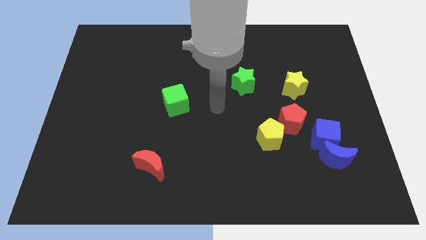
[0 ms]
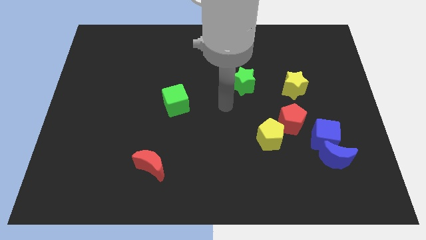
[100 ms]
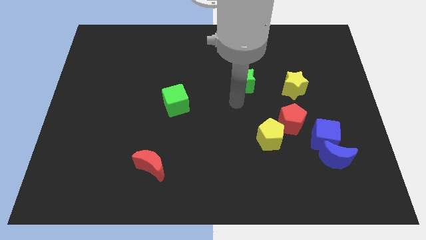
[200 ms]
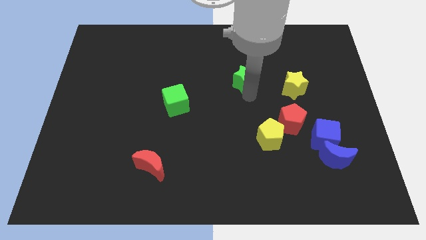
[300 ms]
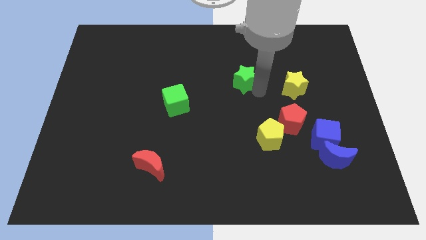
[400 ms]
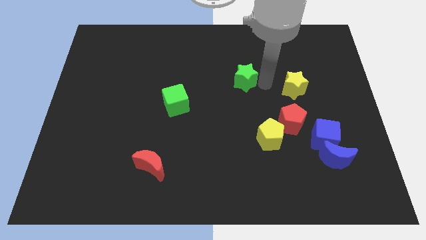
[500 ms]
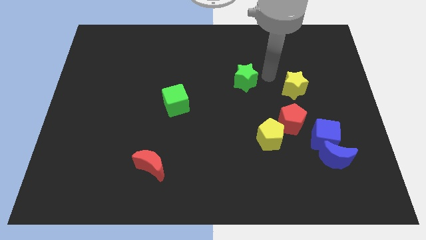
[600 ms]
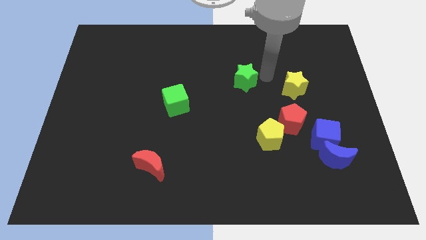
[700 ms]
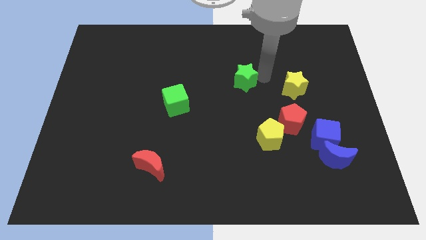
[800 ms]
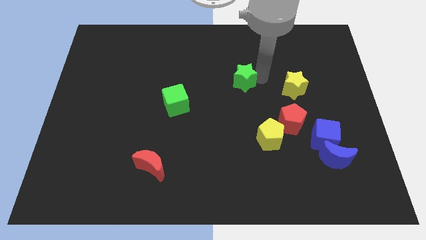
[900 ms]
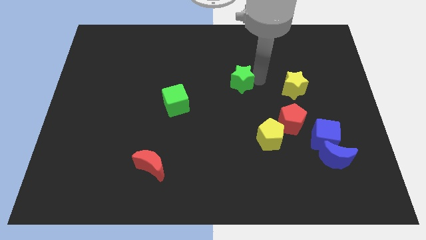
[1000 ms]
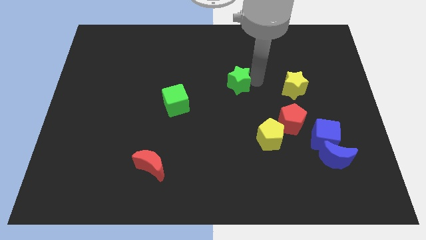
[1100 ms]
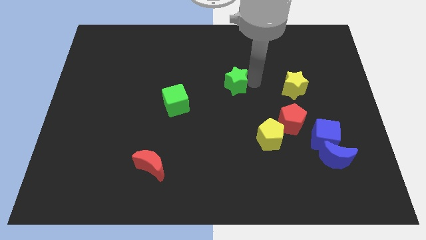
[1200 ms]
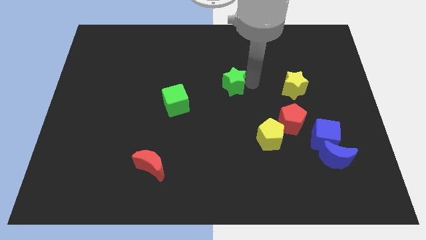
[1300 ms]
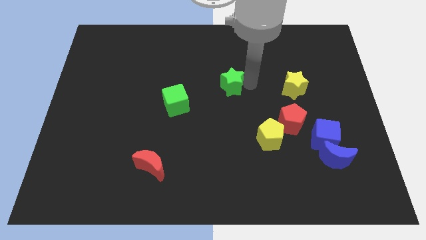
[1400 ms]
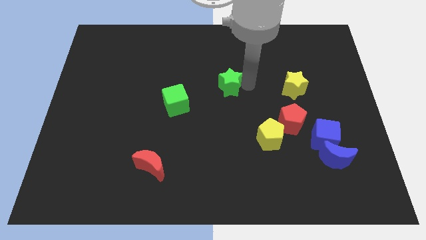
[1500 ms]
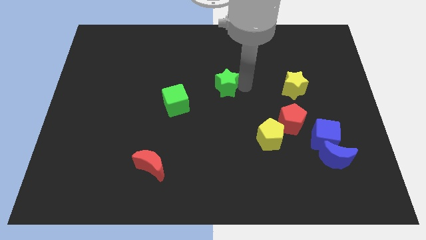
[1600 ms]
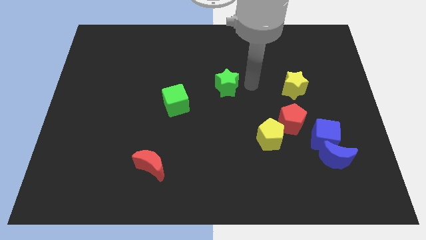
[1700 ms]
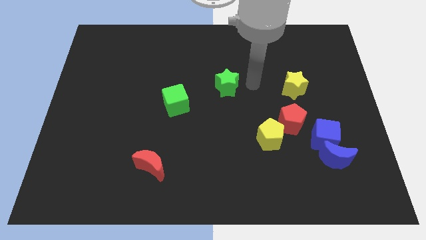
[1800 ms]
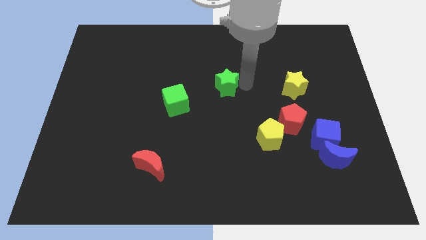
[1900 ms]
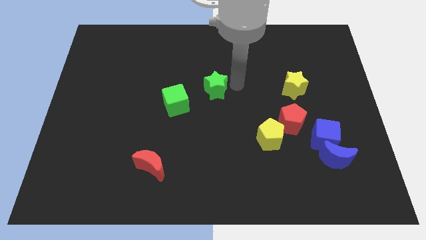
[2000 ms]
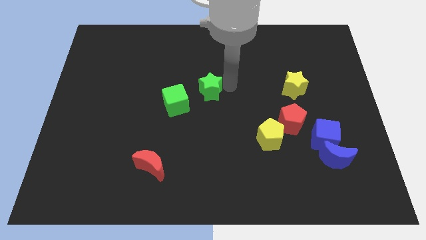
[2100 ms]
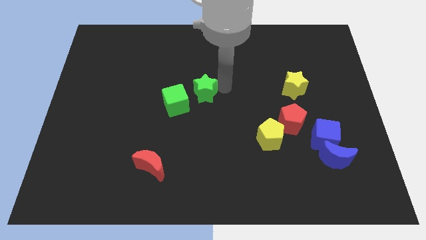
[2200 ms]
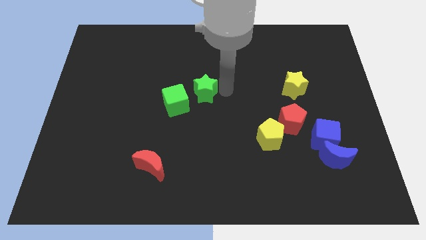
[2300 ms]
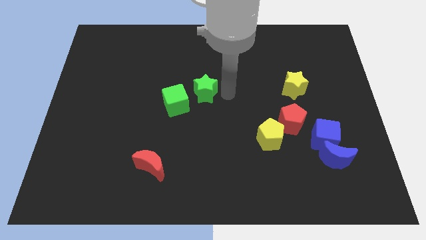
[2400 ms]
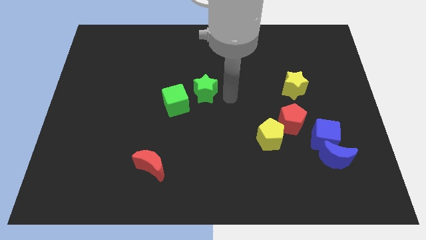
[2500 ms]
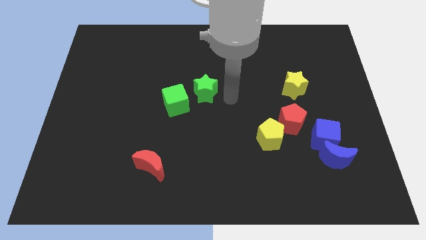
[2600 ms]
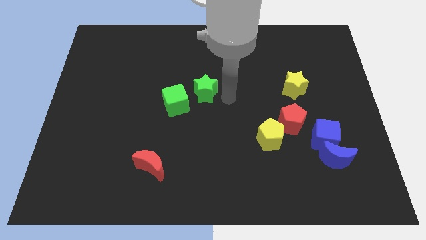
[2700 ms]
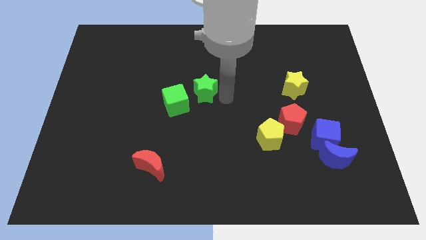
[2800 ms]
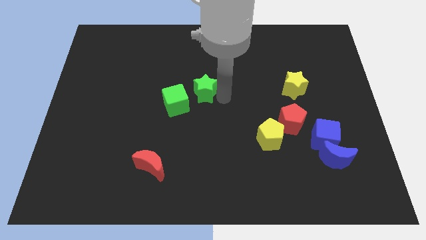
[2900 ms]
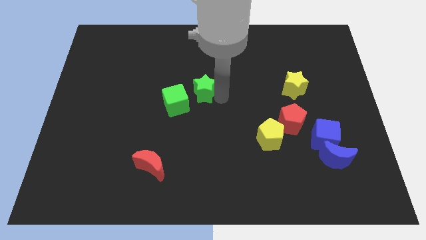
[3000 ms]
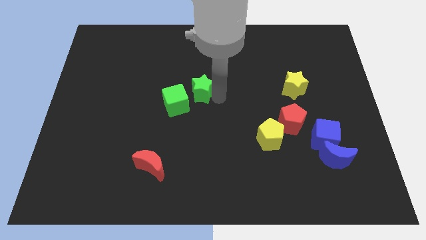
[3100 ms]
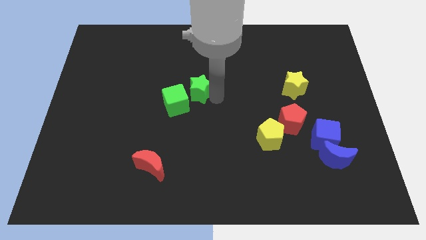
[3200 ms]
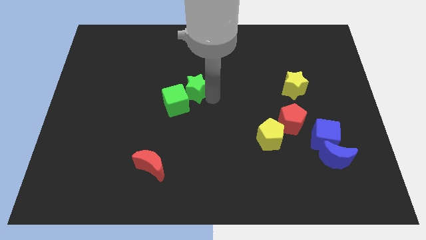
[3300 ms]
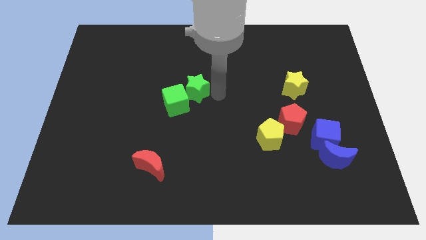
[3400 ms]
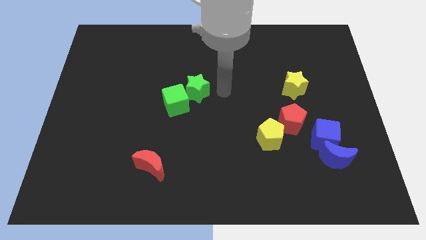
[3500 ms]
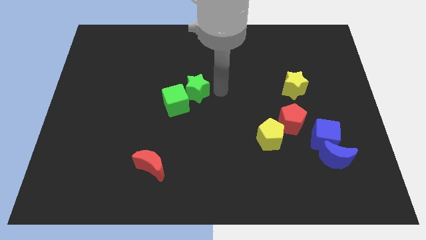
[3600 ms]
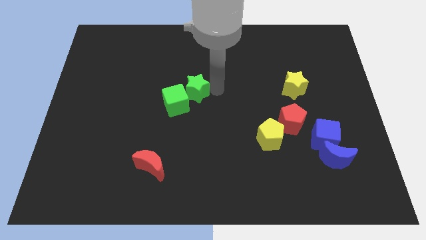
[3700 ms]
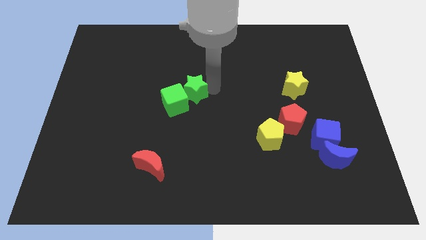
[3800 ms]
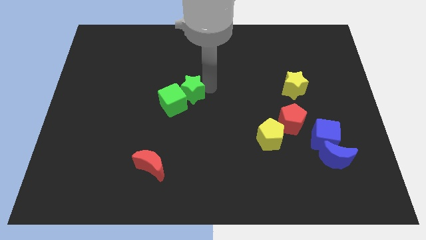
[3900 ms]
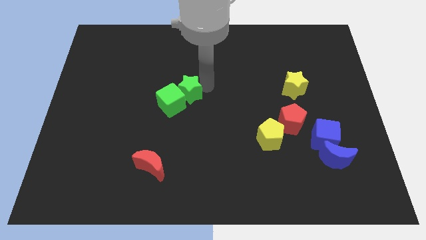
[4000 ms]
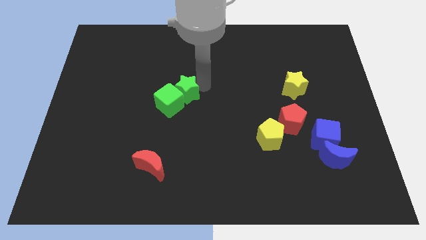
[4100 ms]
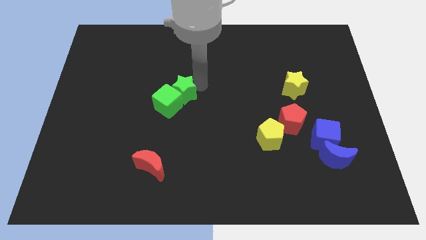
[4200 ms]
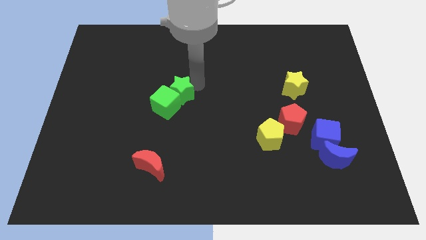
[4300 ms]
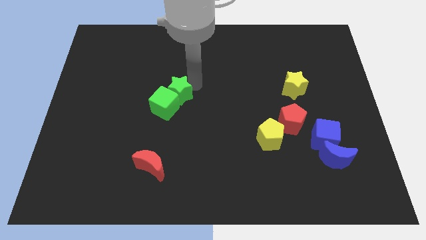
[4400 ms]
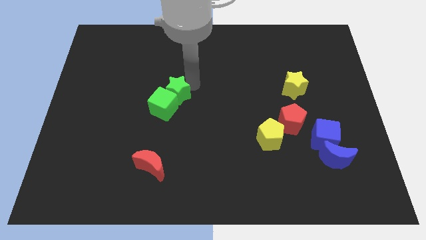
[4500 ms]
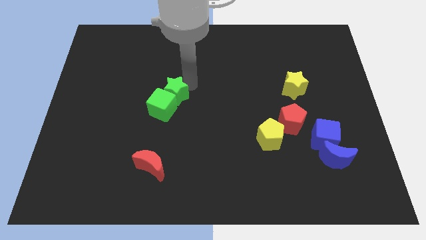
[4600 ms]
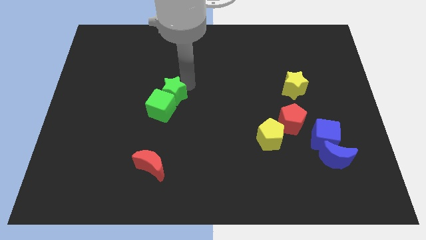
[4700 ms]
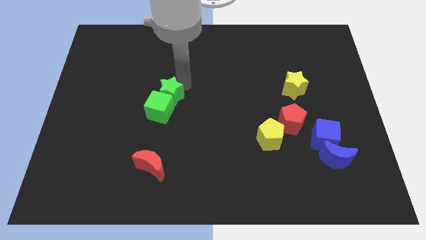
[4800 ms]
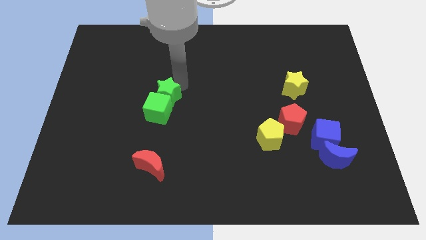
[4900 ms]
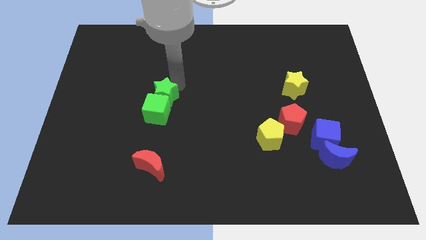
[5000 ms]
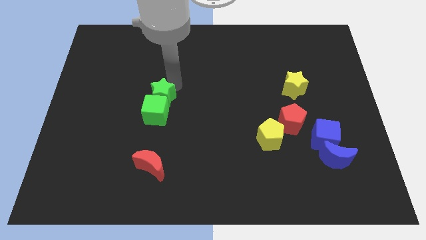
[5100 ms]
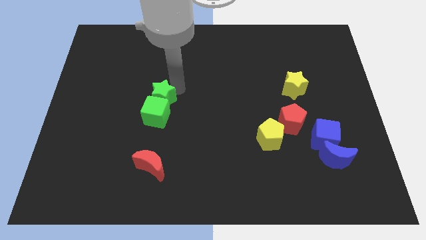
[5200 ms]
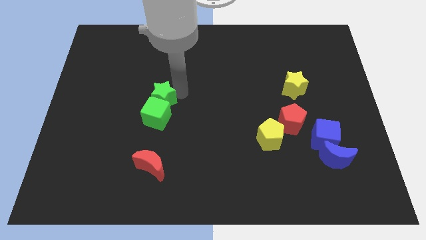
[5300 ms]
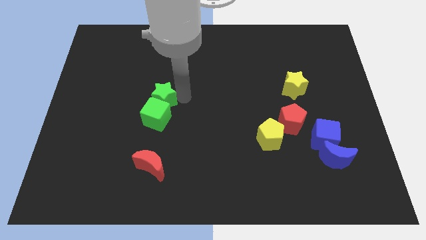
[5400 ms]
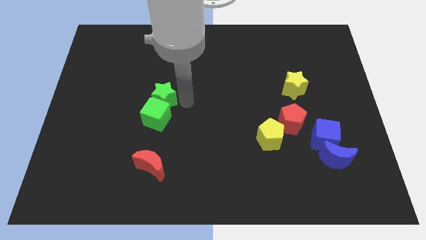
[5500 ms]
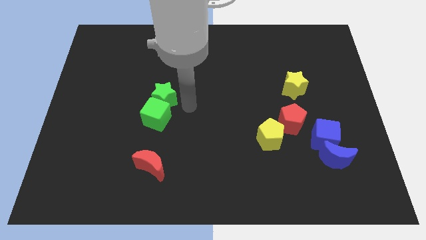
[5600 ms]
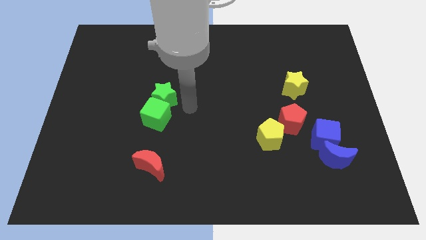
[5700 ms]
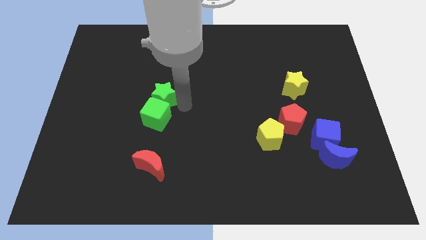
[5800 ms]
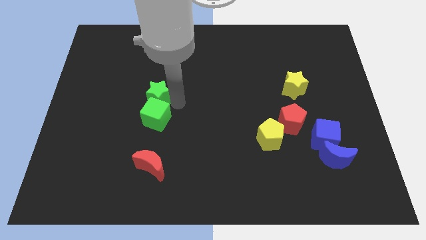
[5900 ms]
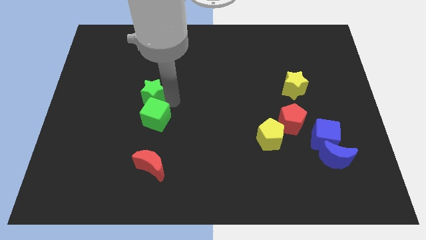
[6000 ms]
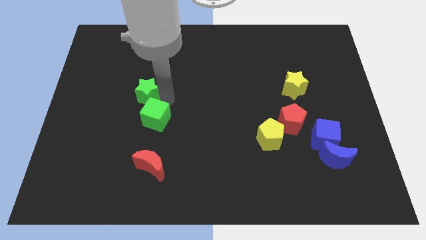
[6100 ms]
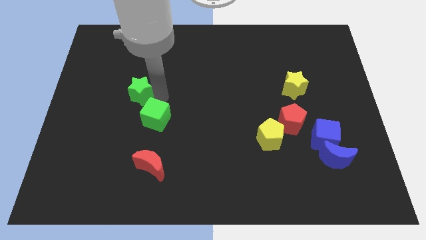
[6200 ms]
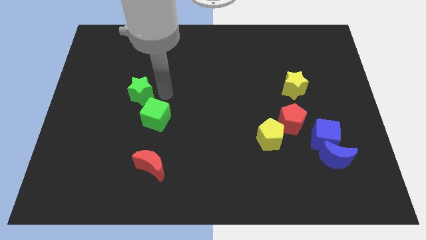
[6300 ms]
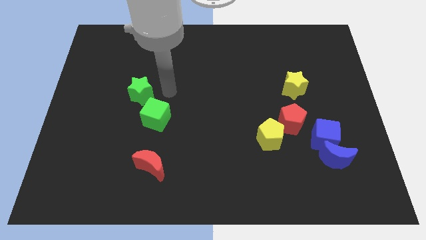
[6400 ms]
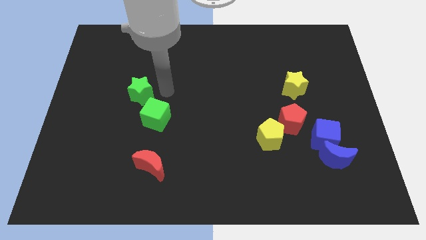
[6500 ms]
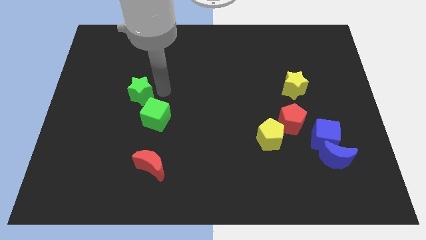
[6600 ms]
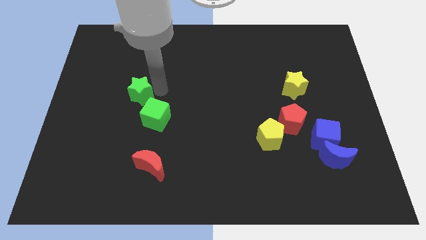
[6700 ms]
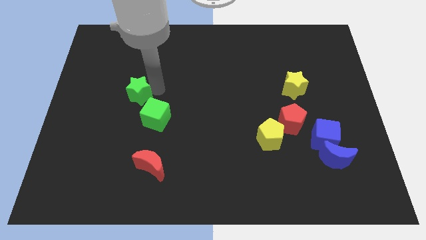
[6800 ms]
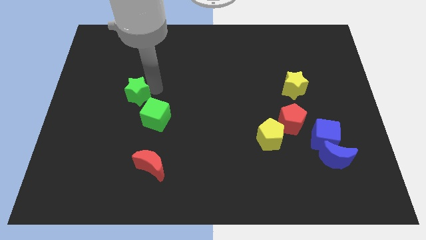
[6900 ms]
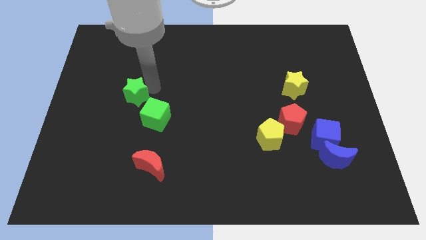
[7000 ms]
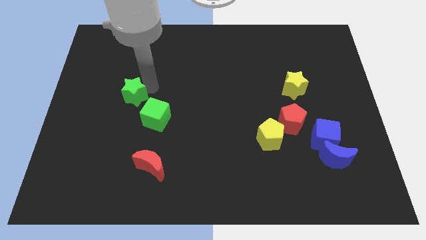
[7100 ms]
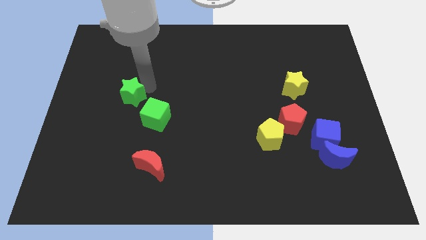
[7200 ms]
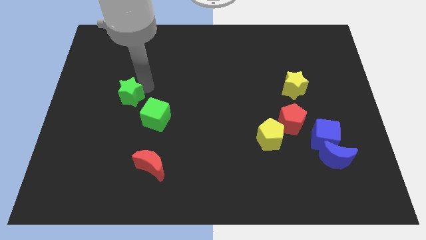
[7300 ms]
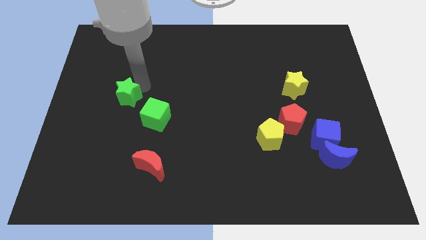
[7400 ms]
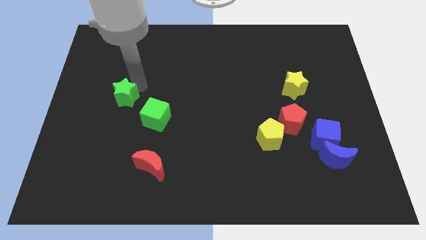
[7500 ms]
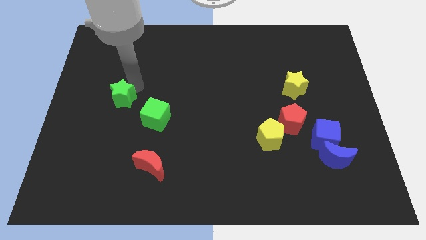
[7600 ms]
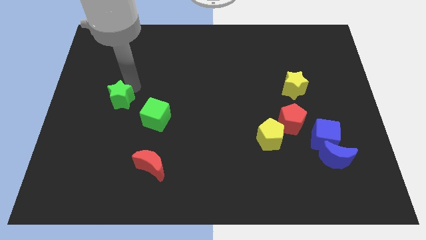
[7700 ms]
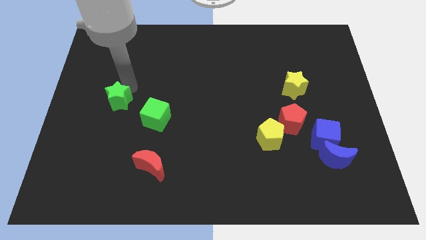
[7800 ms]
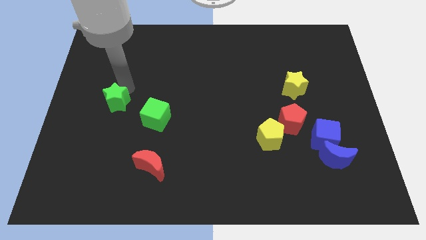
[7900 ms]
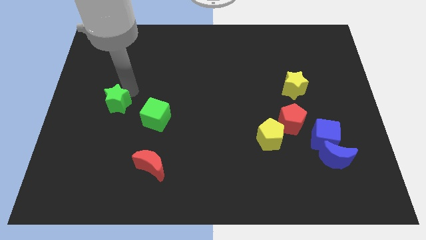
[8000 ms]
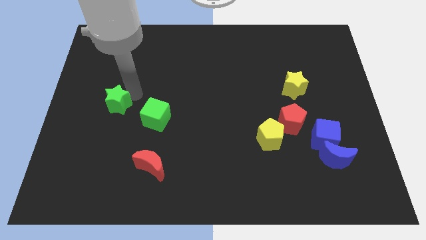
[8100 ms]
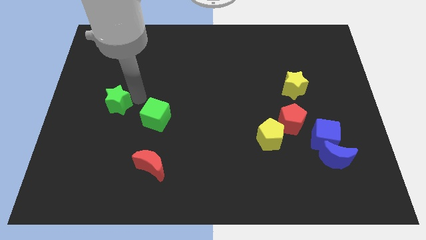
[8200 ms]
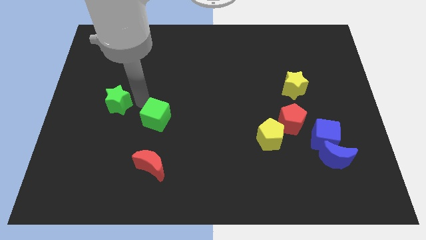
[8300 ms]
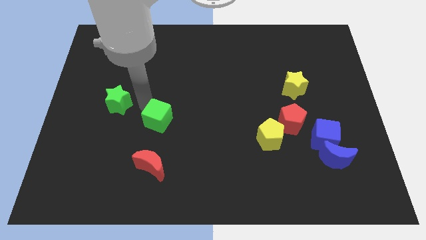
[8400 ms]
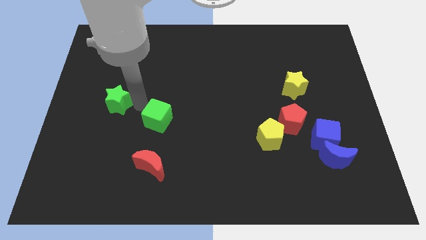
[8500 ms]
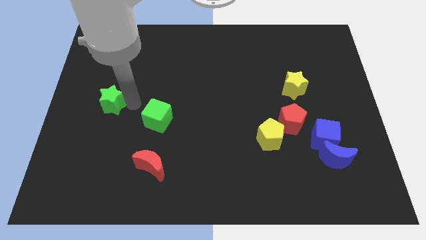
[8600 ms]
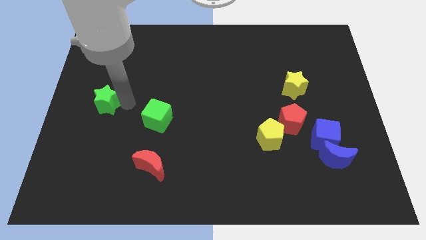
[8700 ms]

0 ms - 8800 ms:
push the green star to the center left
